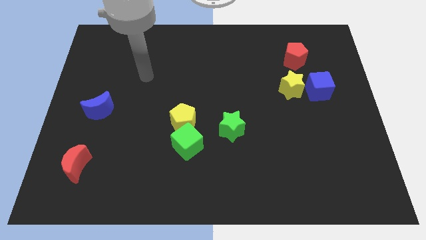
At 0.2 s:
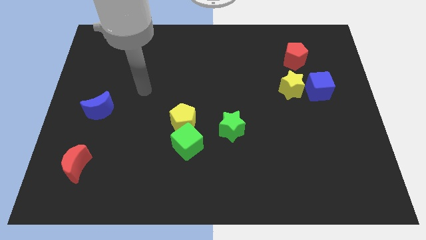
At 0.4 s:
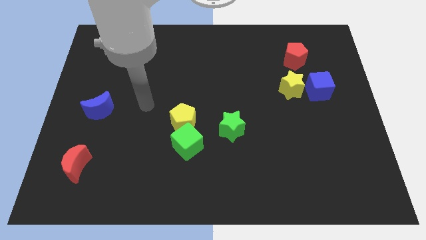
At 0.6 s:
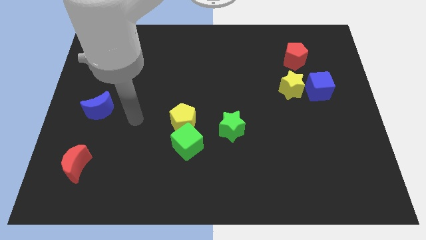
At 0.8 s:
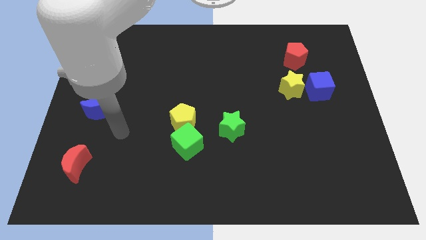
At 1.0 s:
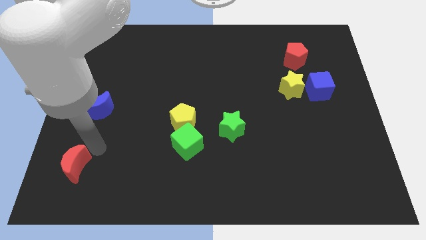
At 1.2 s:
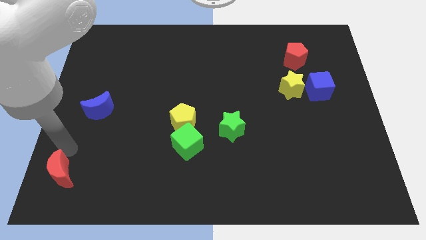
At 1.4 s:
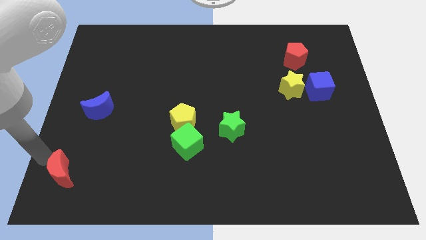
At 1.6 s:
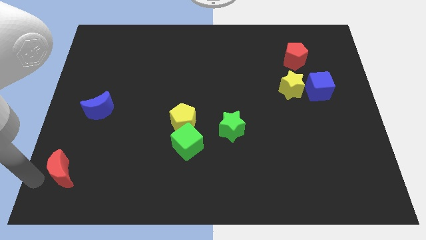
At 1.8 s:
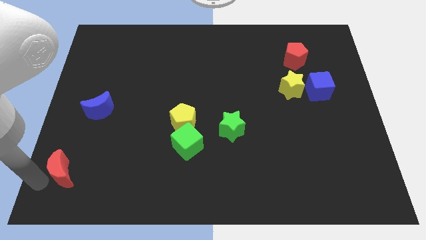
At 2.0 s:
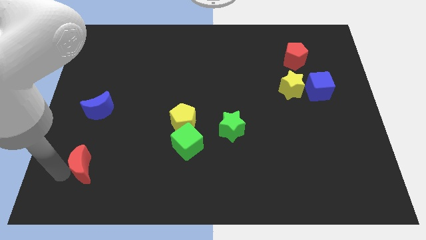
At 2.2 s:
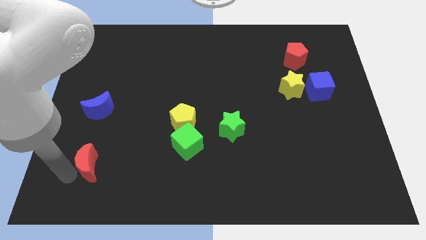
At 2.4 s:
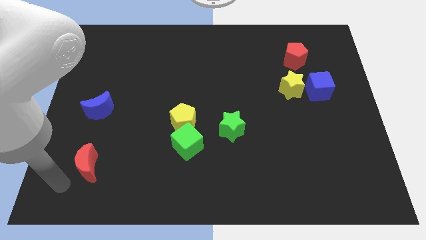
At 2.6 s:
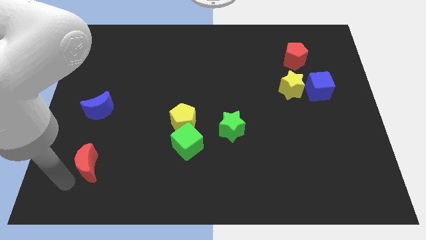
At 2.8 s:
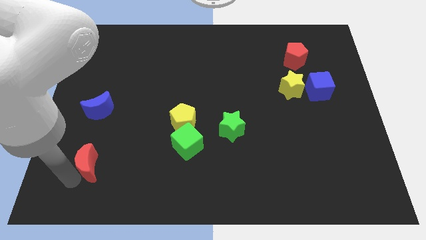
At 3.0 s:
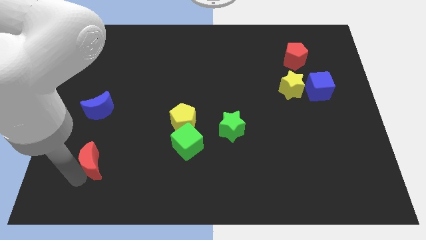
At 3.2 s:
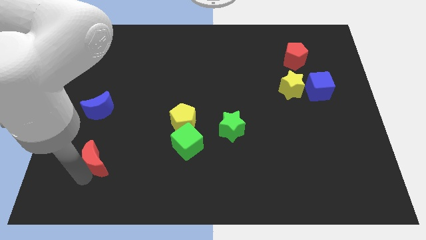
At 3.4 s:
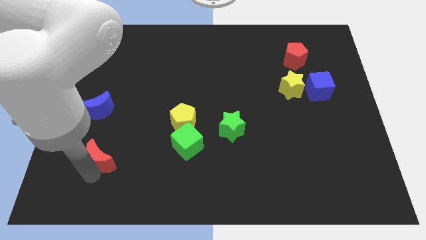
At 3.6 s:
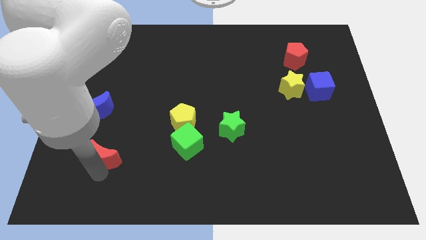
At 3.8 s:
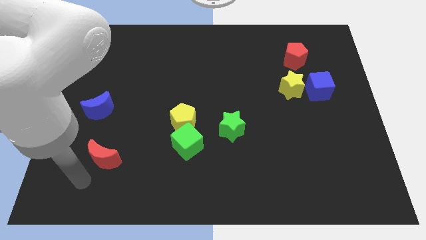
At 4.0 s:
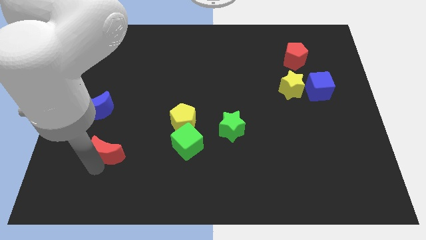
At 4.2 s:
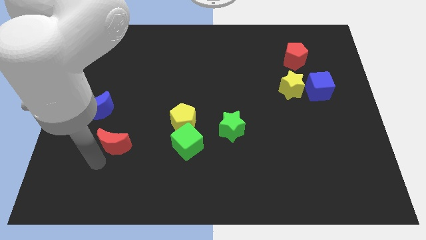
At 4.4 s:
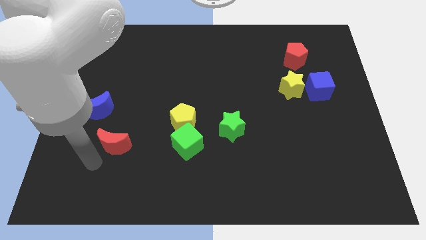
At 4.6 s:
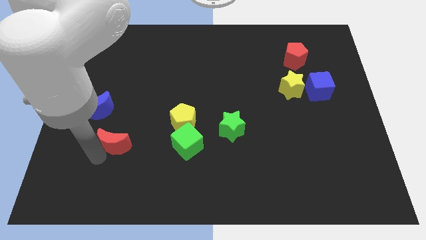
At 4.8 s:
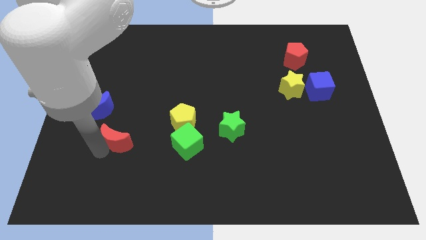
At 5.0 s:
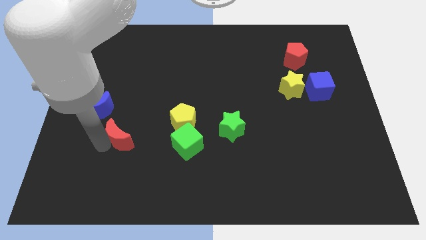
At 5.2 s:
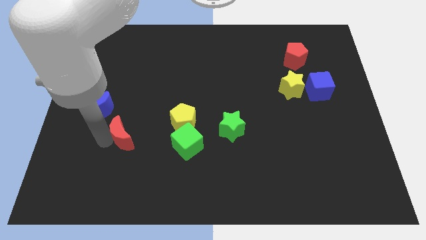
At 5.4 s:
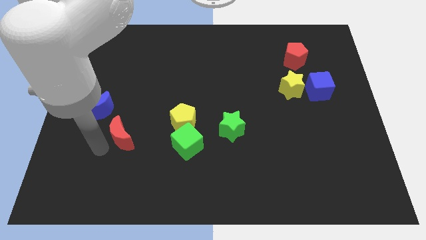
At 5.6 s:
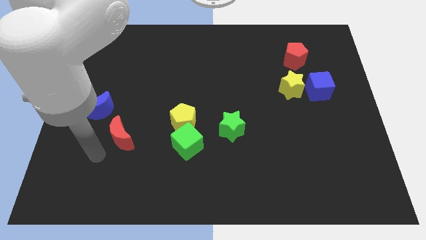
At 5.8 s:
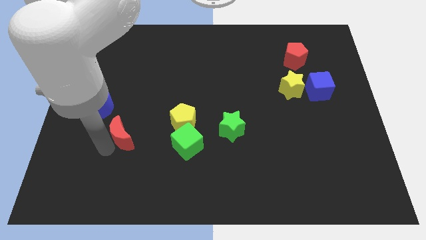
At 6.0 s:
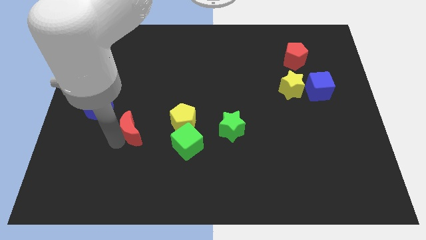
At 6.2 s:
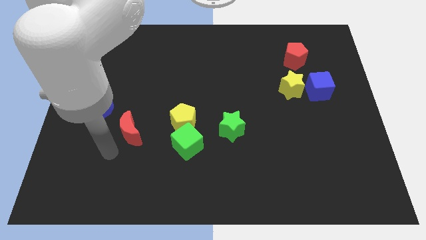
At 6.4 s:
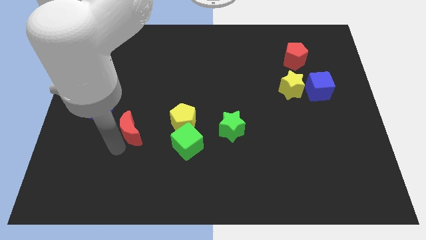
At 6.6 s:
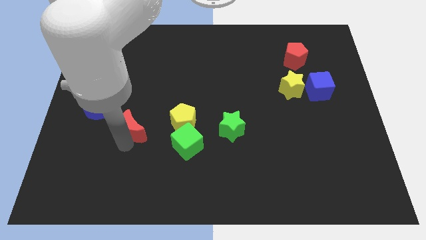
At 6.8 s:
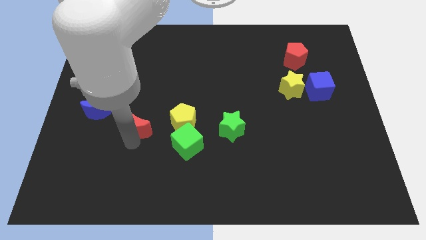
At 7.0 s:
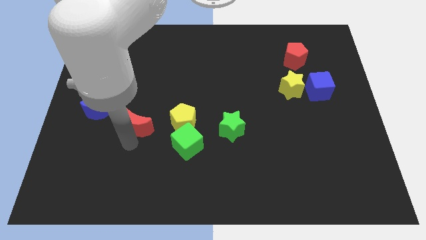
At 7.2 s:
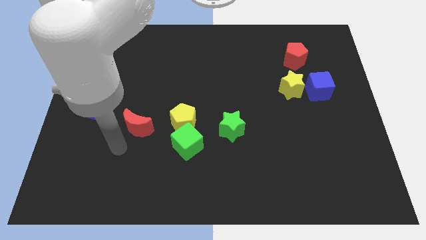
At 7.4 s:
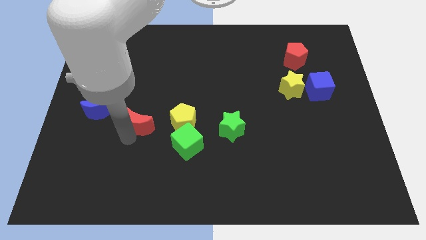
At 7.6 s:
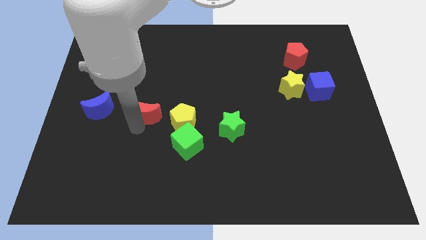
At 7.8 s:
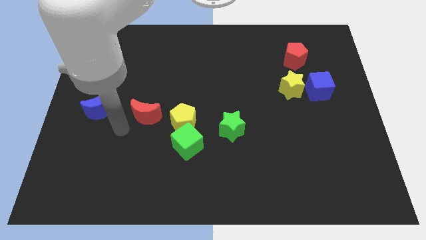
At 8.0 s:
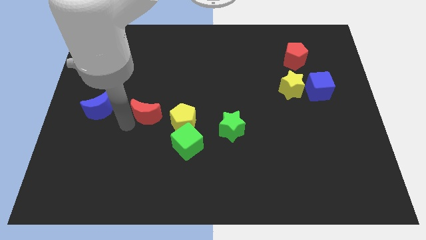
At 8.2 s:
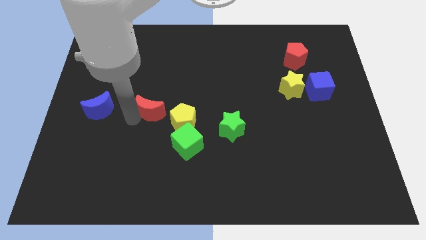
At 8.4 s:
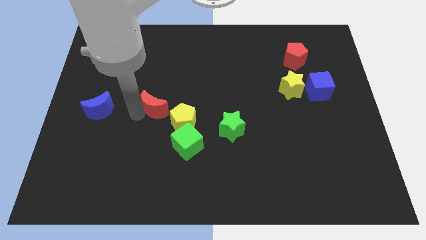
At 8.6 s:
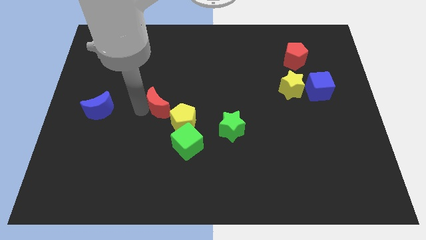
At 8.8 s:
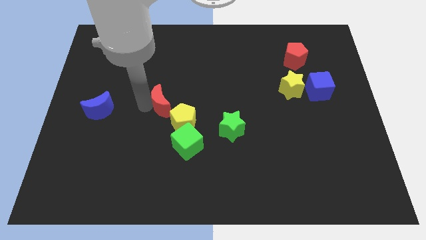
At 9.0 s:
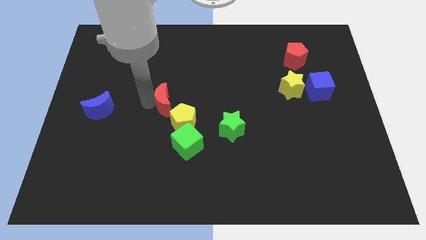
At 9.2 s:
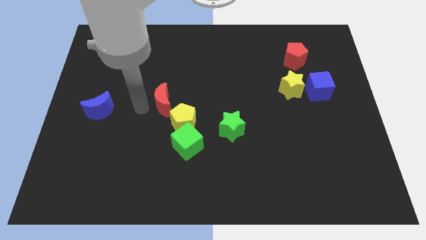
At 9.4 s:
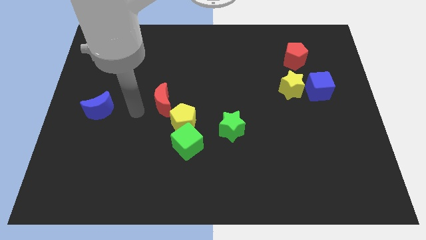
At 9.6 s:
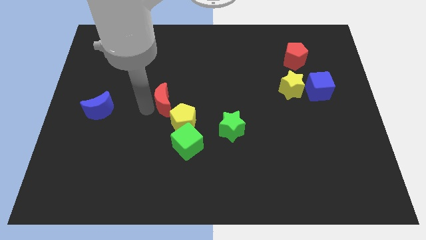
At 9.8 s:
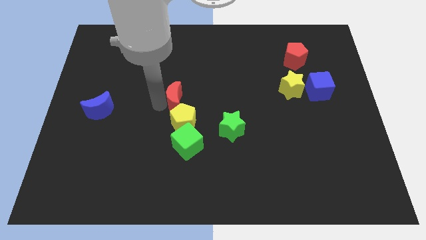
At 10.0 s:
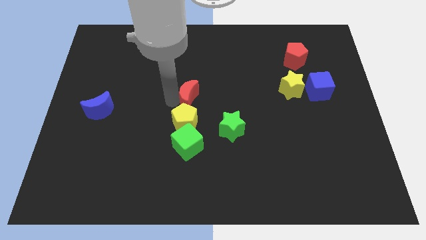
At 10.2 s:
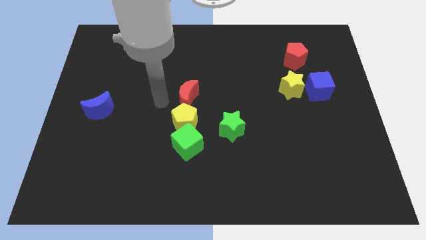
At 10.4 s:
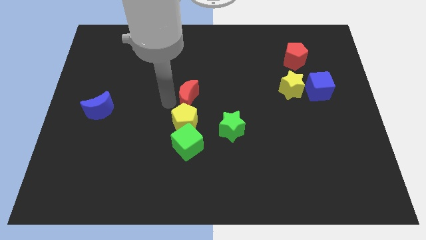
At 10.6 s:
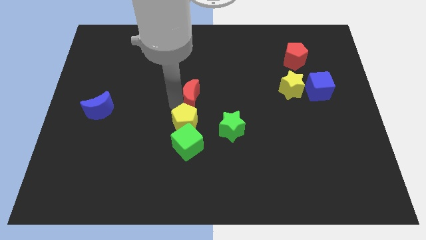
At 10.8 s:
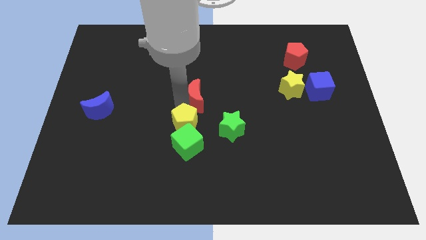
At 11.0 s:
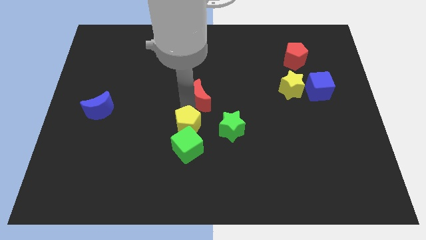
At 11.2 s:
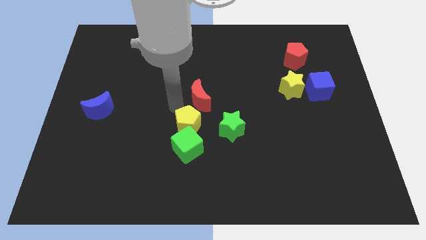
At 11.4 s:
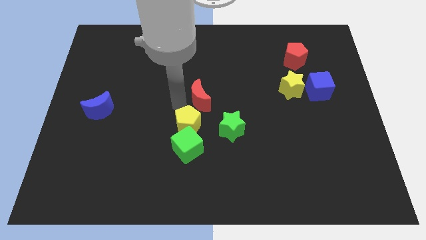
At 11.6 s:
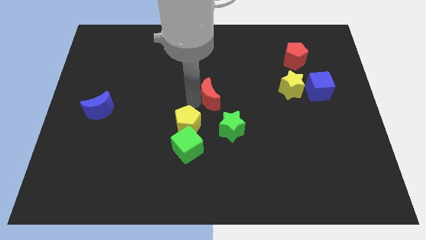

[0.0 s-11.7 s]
push the red moon to the top side of the green star

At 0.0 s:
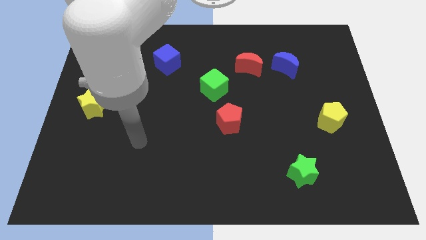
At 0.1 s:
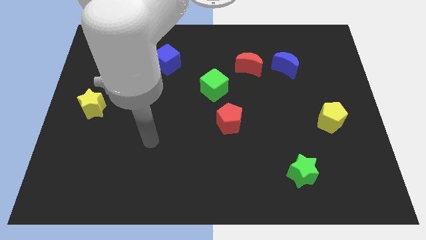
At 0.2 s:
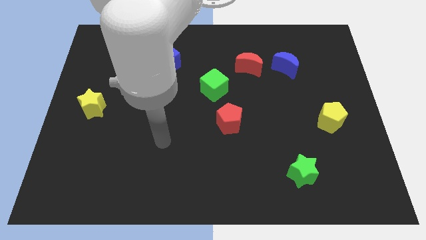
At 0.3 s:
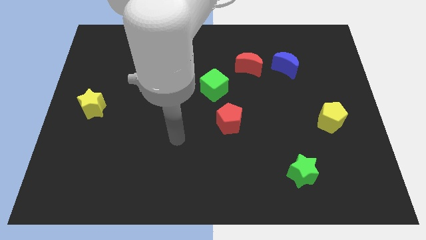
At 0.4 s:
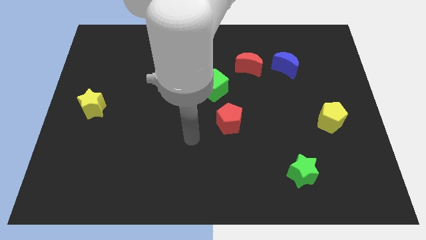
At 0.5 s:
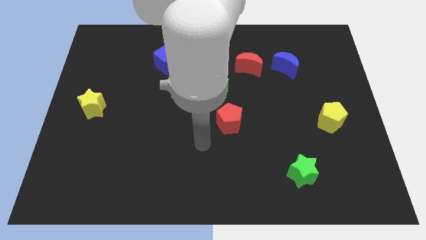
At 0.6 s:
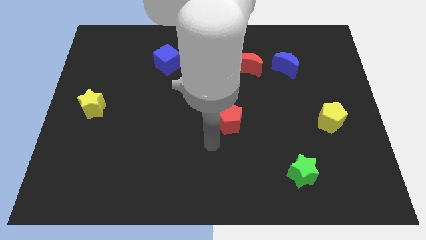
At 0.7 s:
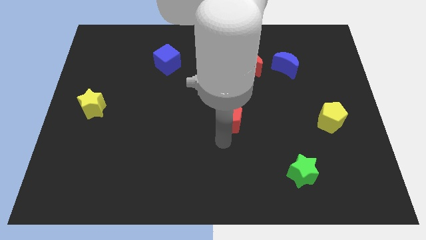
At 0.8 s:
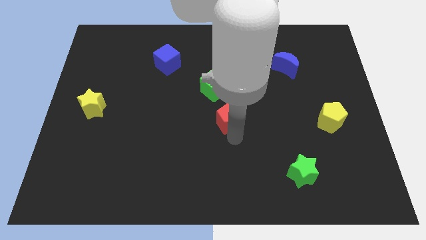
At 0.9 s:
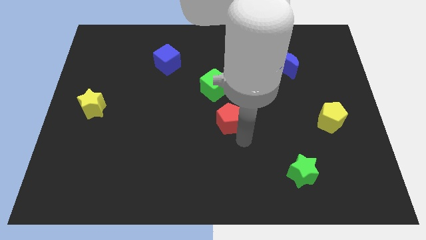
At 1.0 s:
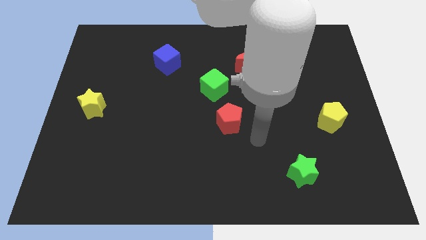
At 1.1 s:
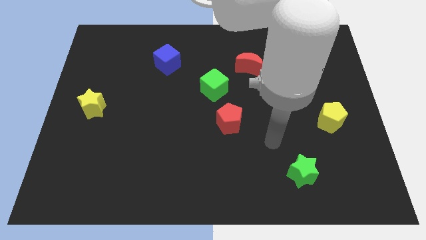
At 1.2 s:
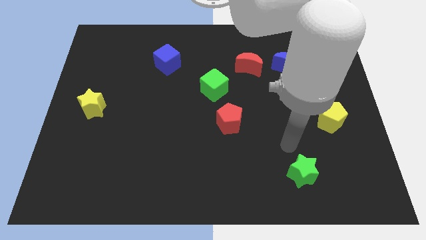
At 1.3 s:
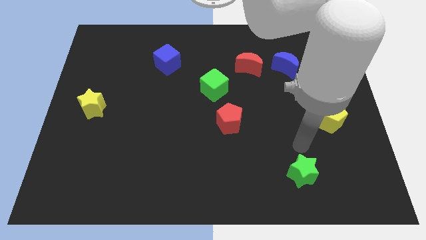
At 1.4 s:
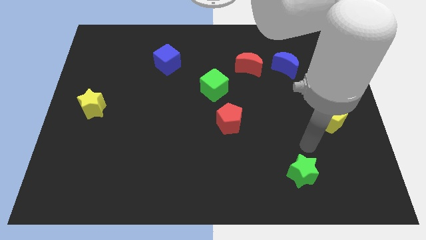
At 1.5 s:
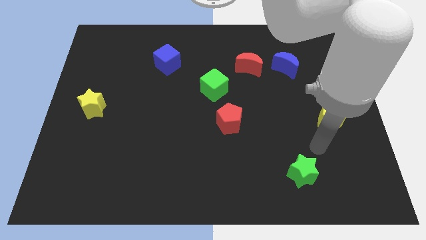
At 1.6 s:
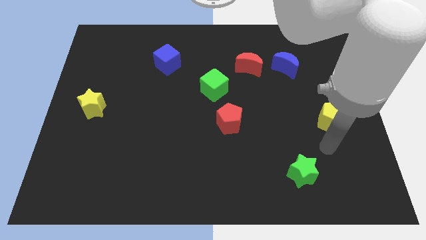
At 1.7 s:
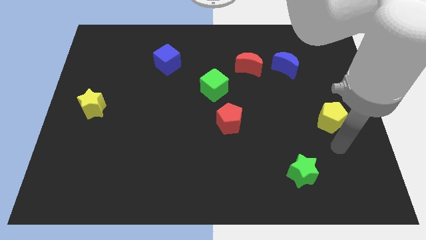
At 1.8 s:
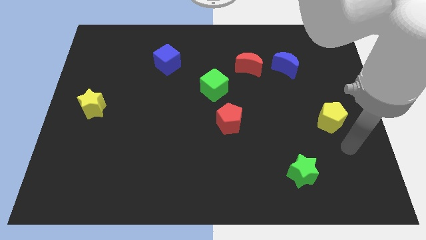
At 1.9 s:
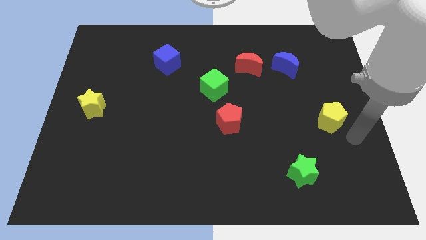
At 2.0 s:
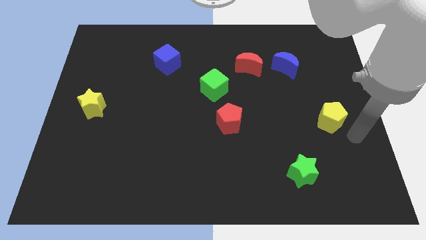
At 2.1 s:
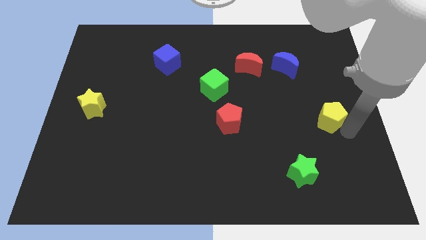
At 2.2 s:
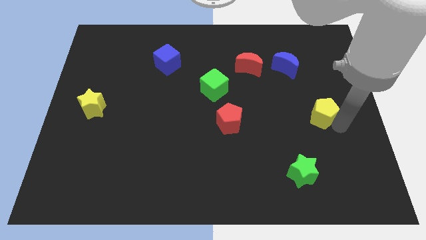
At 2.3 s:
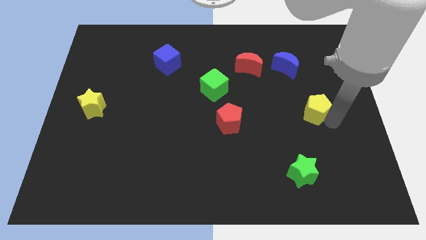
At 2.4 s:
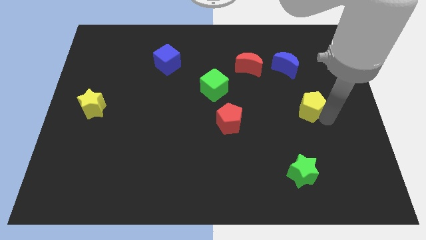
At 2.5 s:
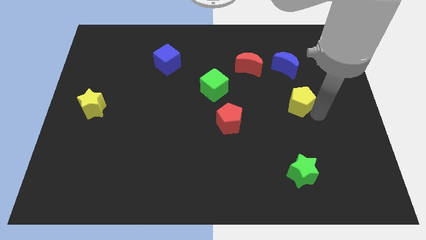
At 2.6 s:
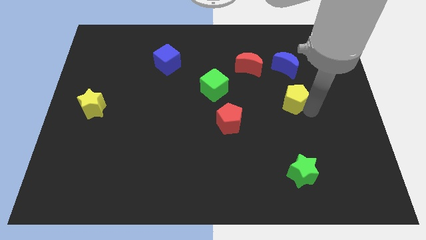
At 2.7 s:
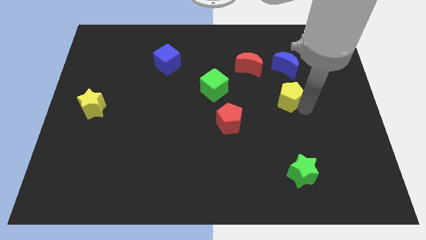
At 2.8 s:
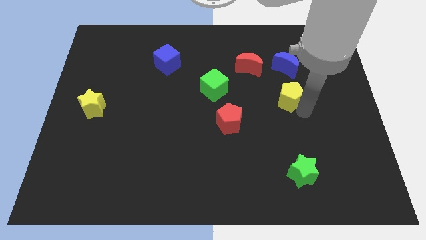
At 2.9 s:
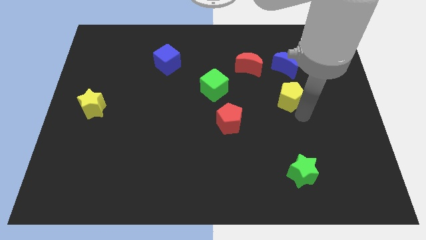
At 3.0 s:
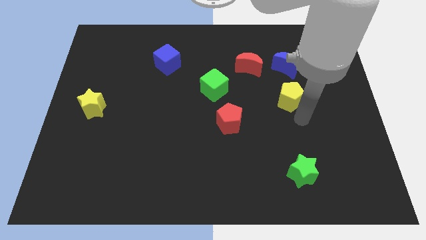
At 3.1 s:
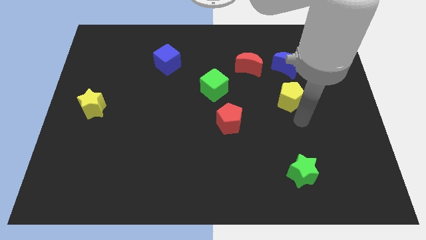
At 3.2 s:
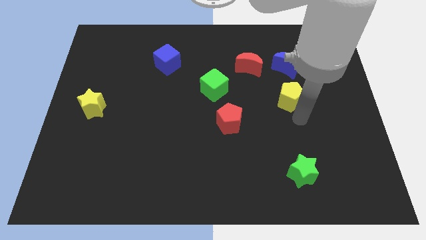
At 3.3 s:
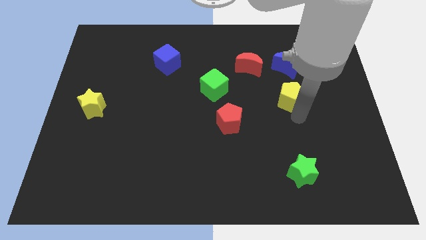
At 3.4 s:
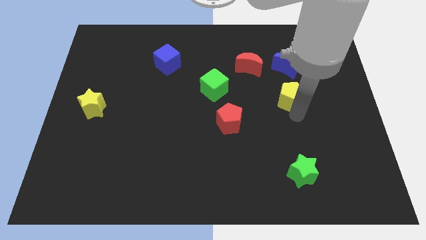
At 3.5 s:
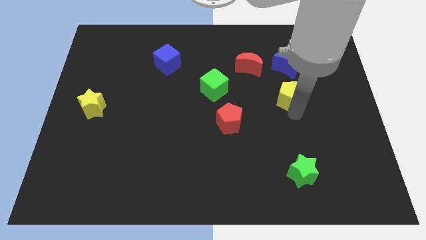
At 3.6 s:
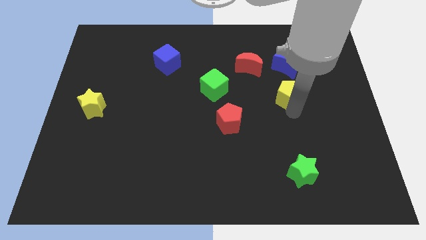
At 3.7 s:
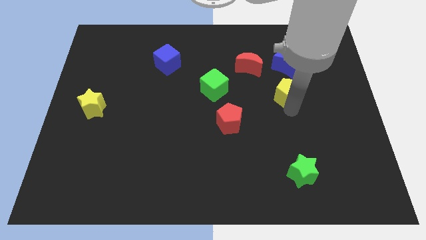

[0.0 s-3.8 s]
put the yellow pentagon to the bottom right side of the red moon
